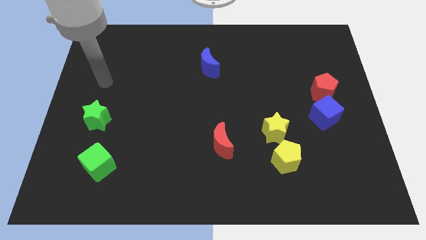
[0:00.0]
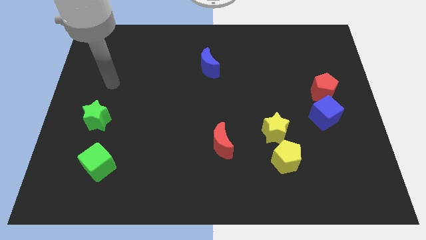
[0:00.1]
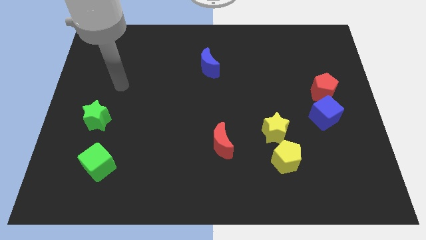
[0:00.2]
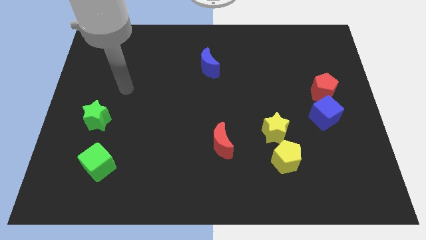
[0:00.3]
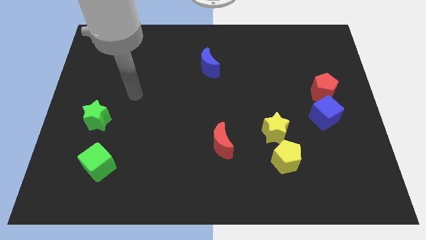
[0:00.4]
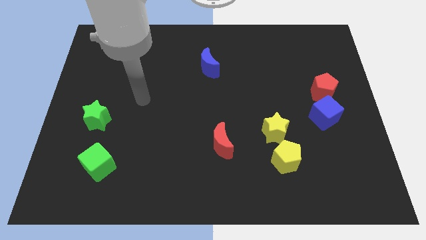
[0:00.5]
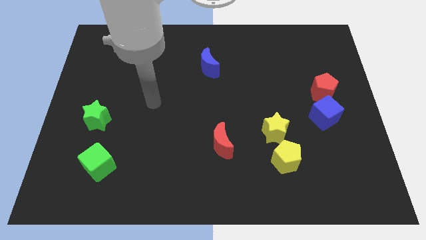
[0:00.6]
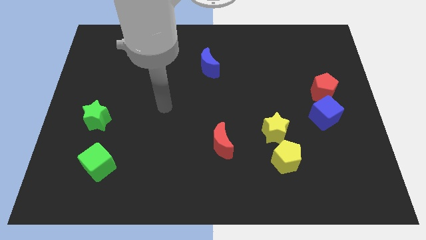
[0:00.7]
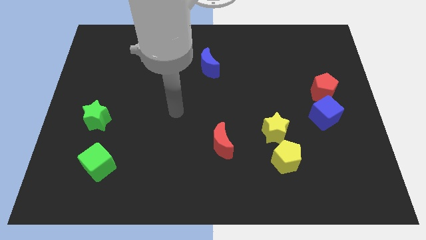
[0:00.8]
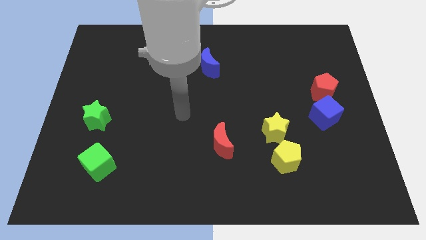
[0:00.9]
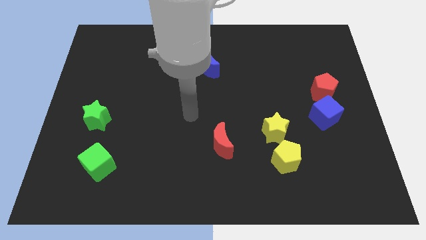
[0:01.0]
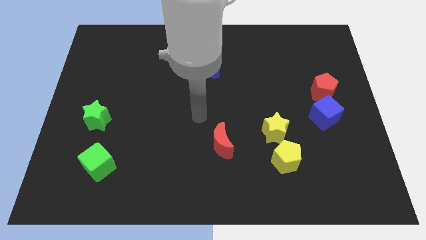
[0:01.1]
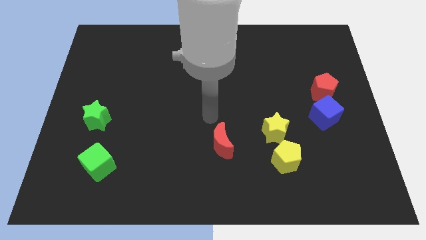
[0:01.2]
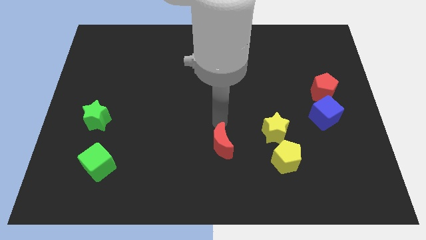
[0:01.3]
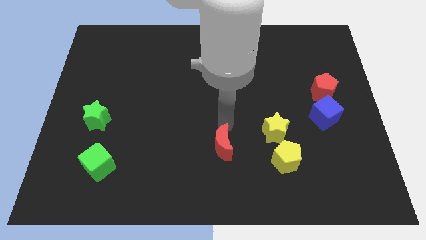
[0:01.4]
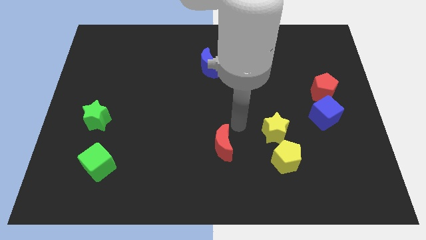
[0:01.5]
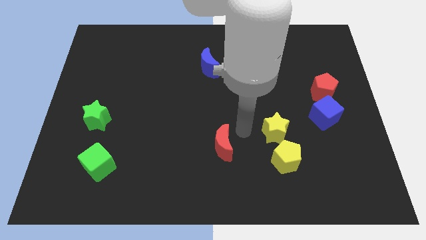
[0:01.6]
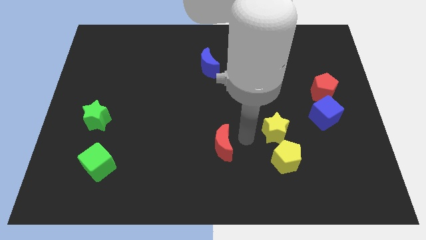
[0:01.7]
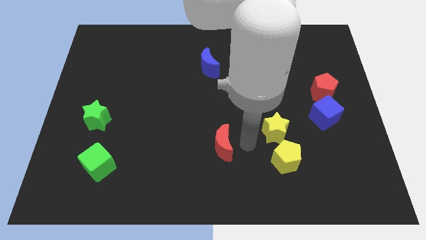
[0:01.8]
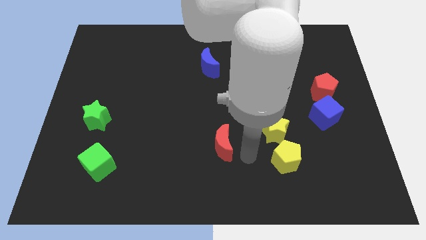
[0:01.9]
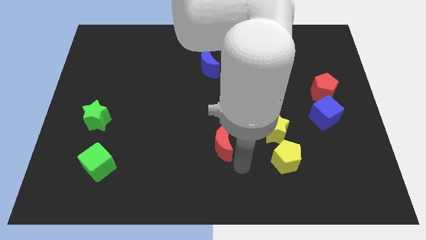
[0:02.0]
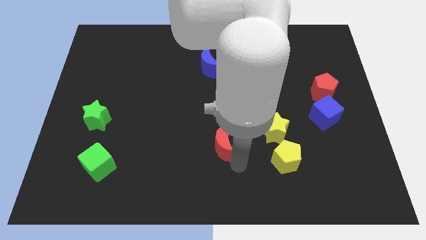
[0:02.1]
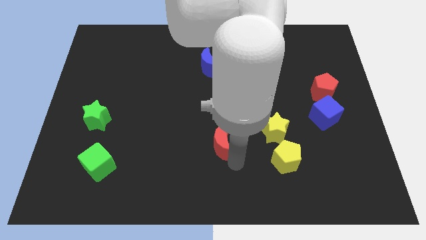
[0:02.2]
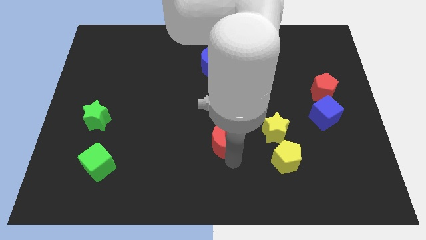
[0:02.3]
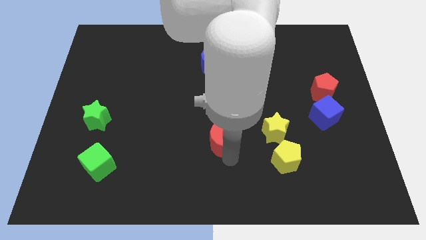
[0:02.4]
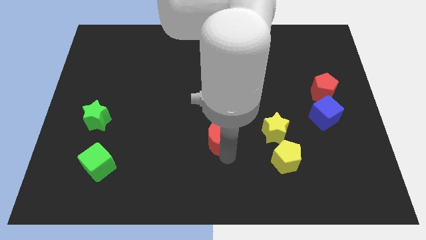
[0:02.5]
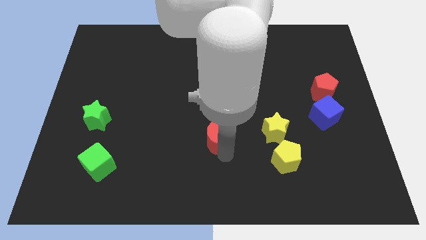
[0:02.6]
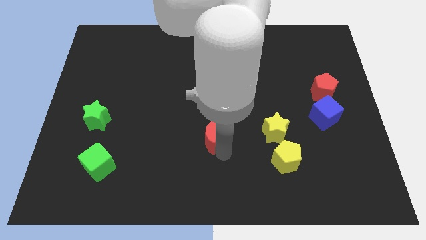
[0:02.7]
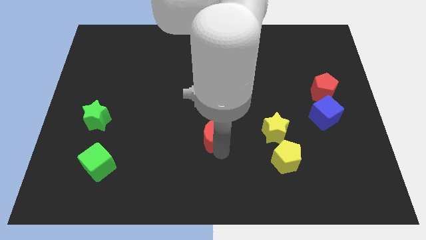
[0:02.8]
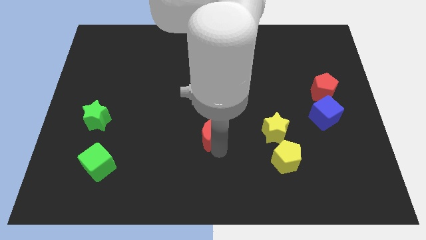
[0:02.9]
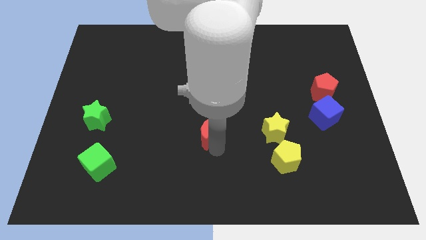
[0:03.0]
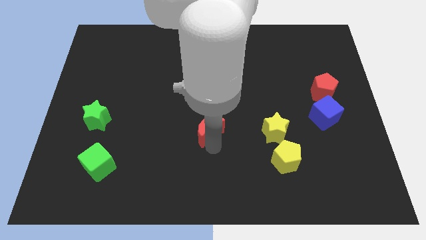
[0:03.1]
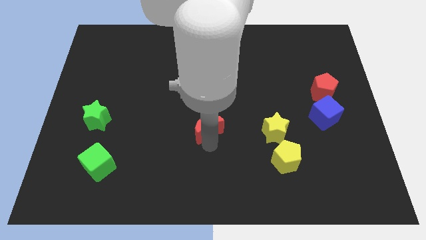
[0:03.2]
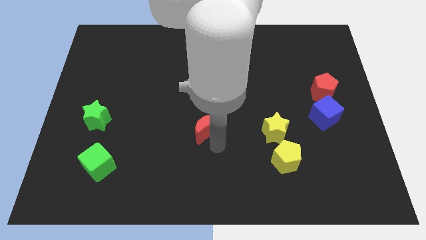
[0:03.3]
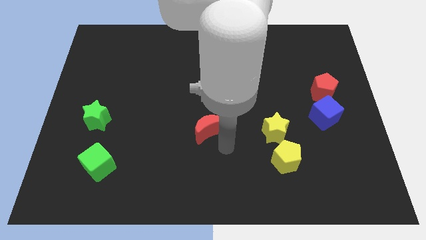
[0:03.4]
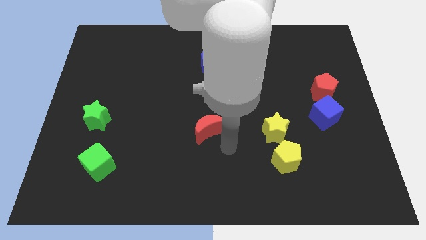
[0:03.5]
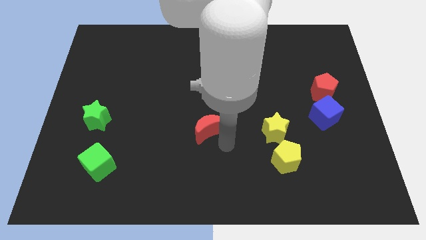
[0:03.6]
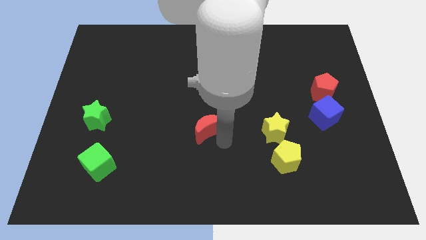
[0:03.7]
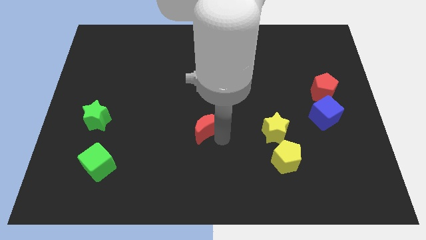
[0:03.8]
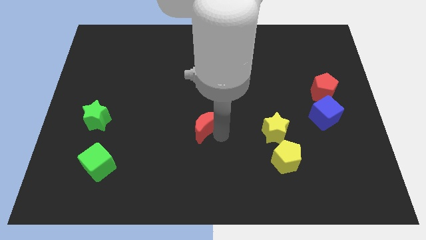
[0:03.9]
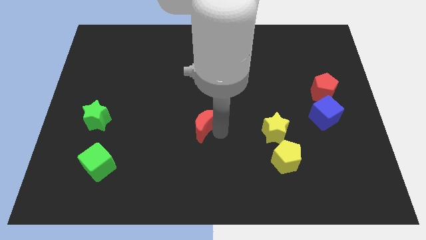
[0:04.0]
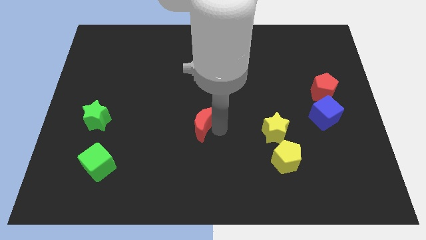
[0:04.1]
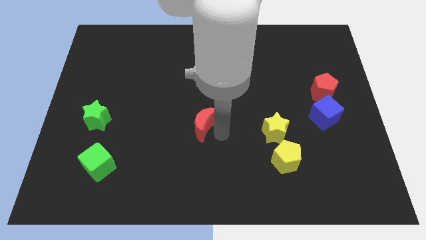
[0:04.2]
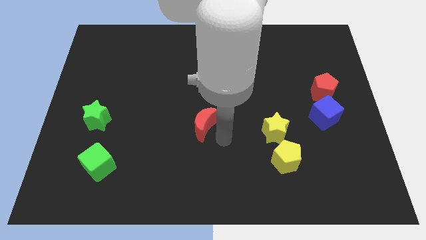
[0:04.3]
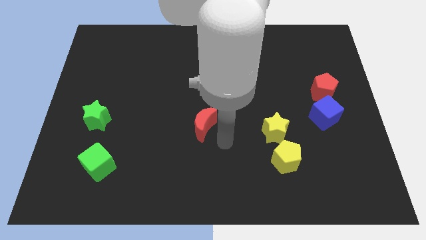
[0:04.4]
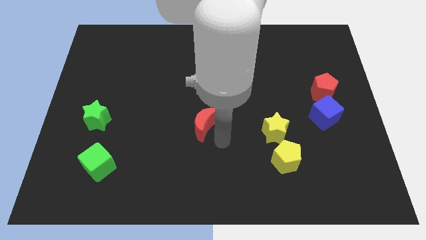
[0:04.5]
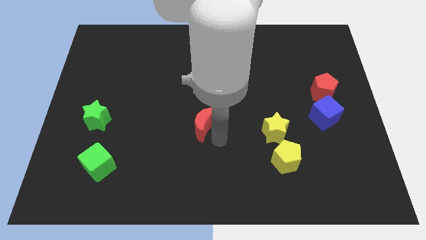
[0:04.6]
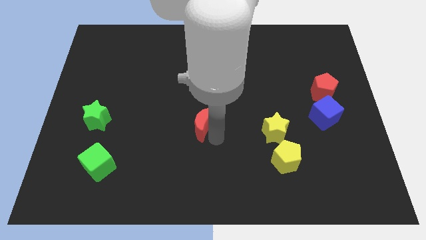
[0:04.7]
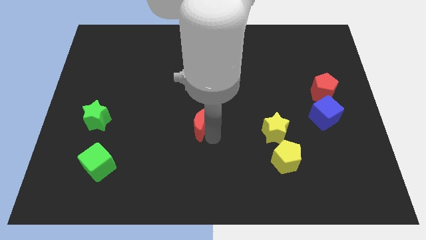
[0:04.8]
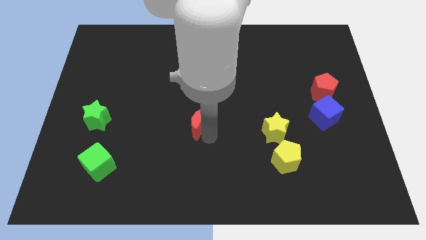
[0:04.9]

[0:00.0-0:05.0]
slightly slide the red moon upwards and left

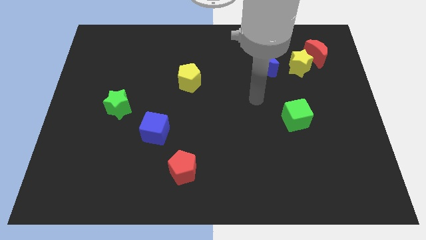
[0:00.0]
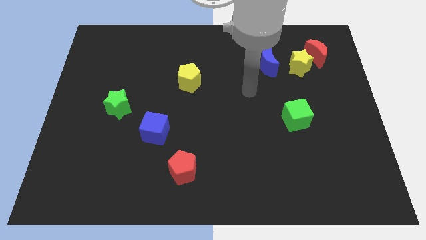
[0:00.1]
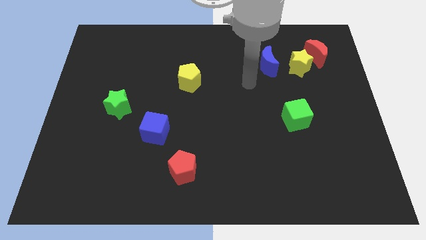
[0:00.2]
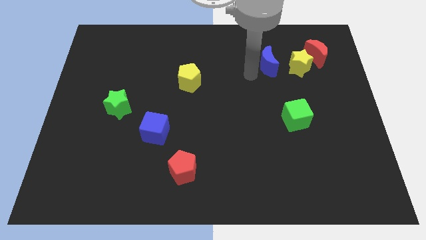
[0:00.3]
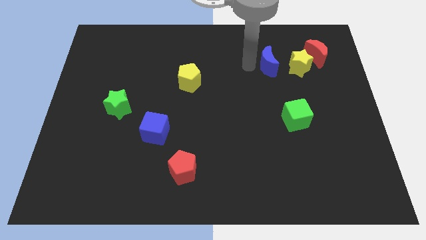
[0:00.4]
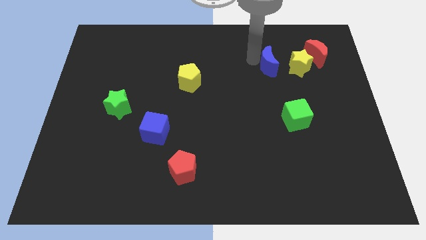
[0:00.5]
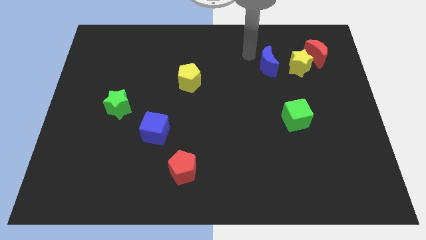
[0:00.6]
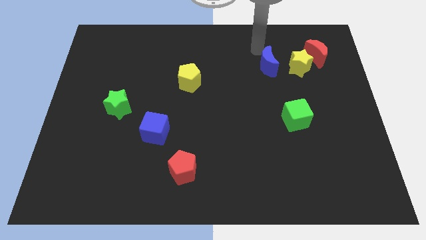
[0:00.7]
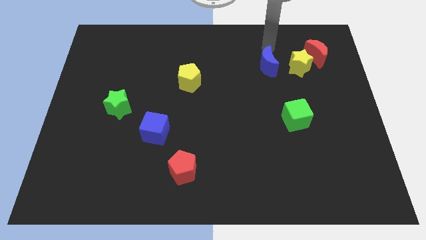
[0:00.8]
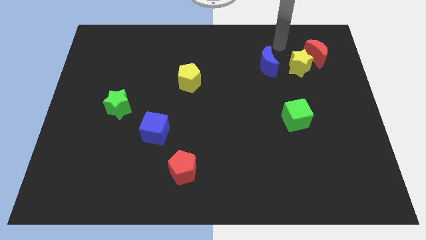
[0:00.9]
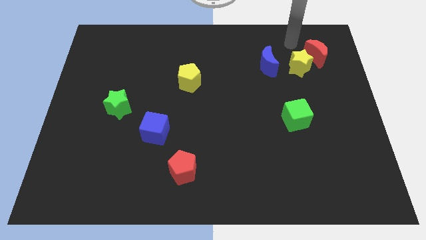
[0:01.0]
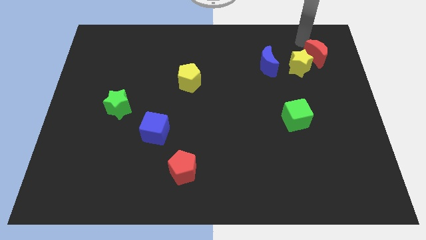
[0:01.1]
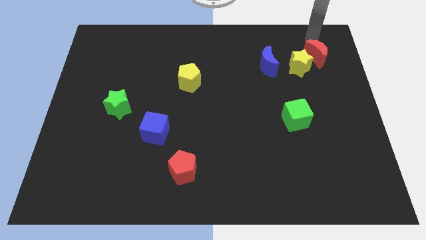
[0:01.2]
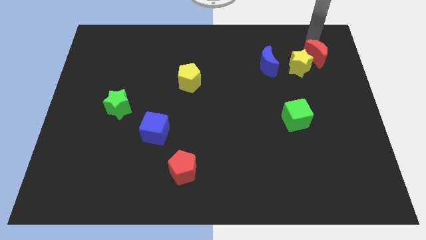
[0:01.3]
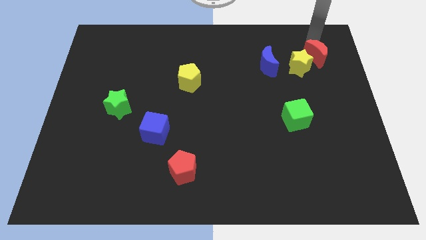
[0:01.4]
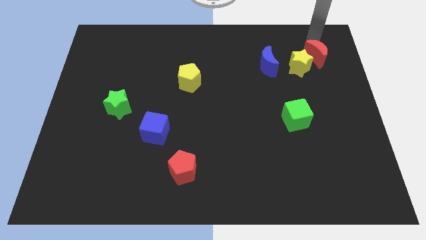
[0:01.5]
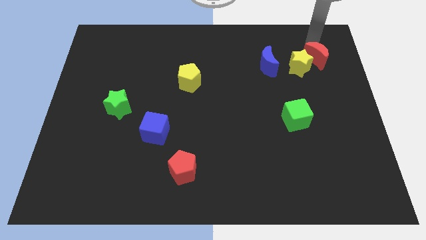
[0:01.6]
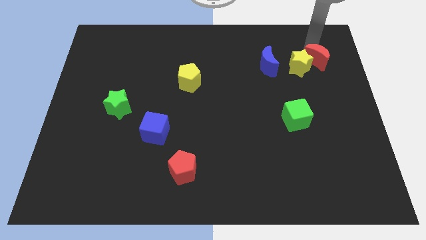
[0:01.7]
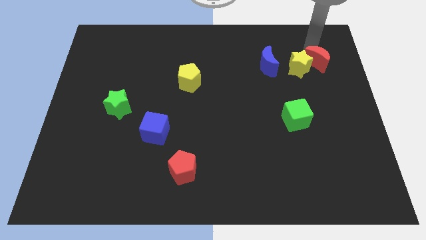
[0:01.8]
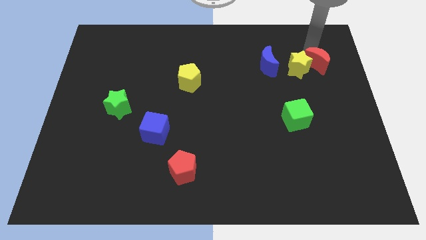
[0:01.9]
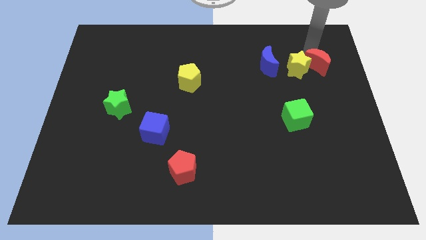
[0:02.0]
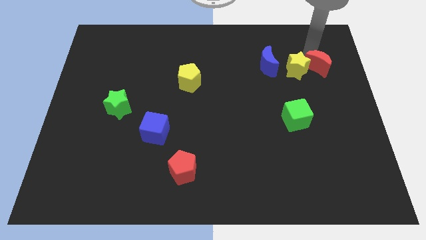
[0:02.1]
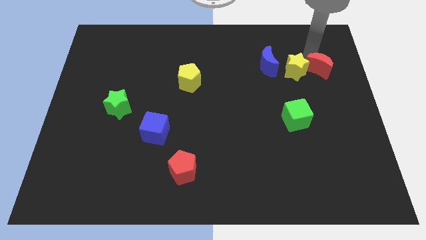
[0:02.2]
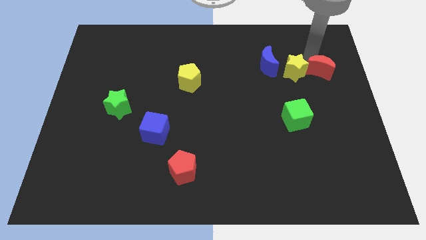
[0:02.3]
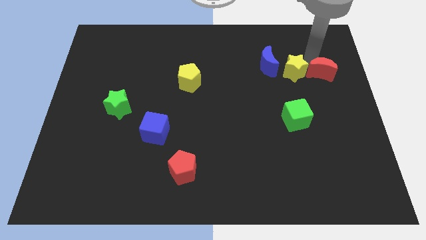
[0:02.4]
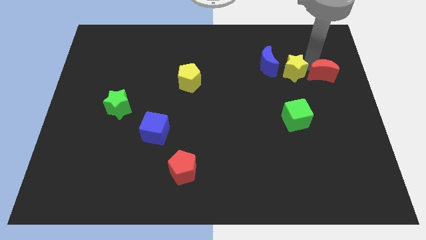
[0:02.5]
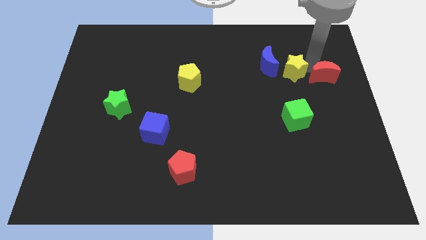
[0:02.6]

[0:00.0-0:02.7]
slide the red moon a bit down

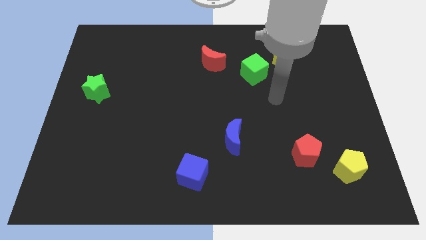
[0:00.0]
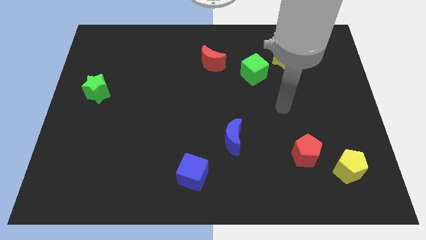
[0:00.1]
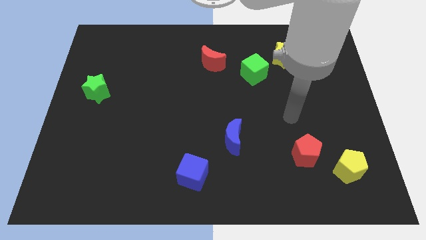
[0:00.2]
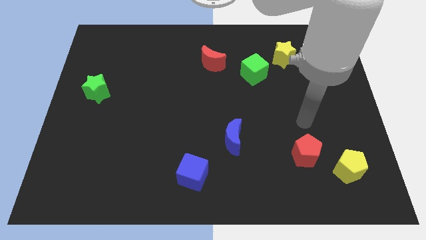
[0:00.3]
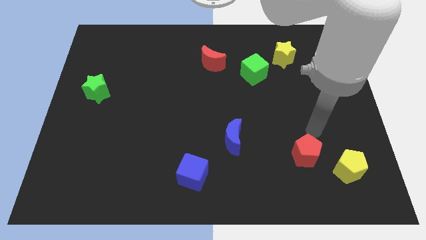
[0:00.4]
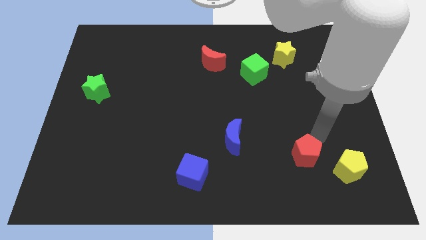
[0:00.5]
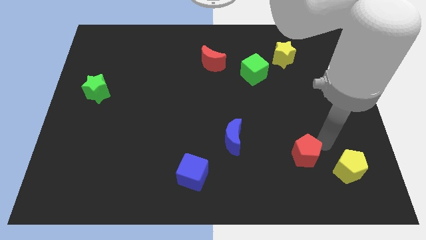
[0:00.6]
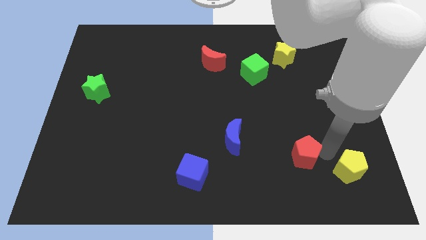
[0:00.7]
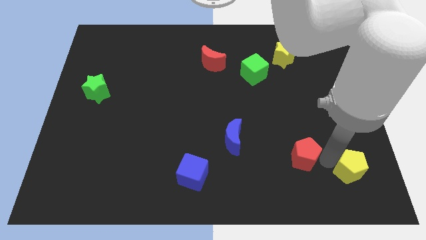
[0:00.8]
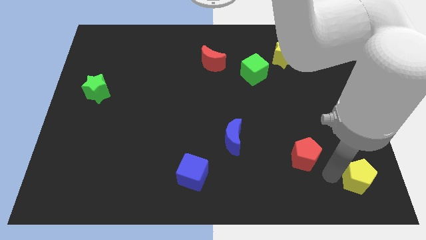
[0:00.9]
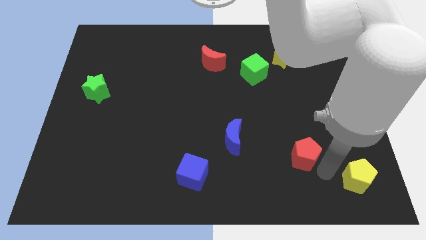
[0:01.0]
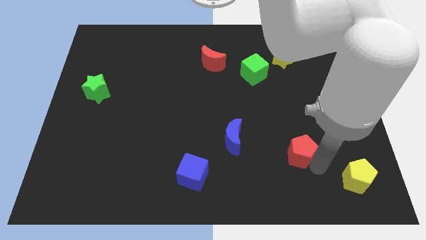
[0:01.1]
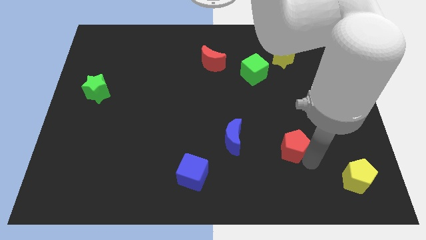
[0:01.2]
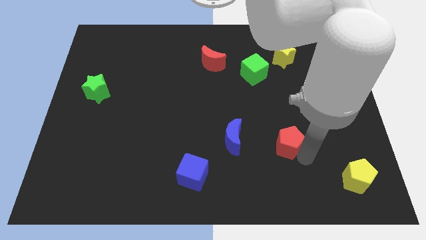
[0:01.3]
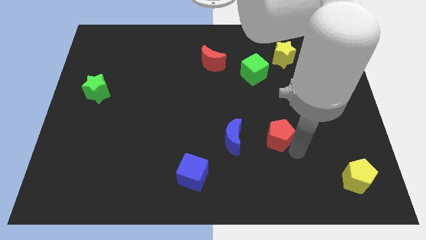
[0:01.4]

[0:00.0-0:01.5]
move the red pentagon upwards and to the left diagonally somewhat
